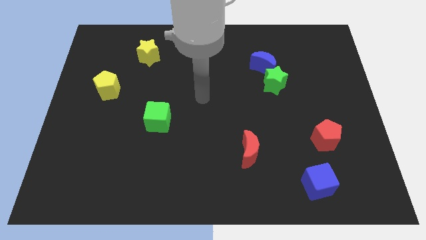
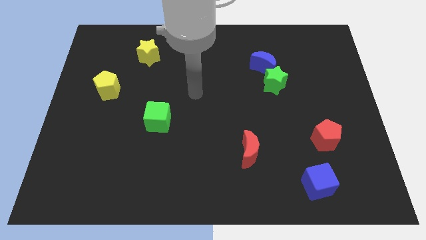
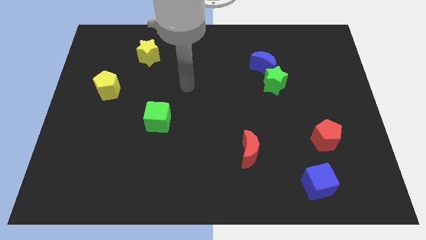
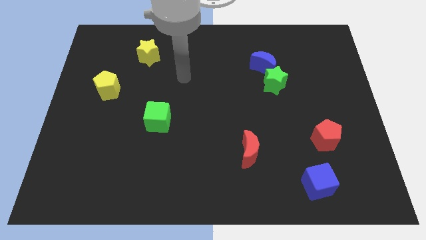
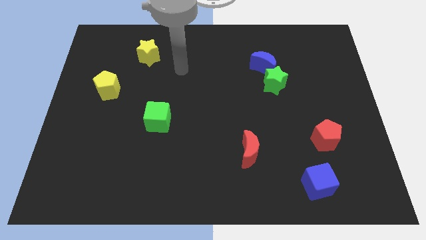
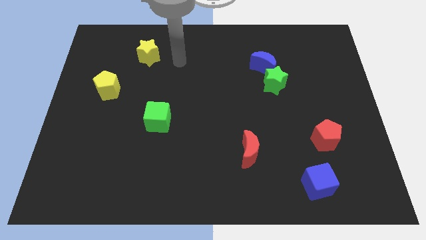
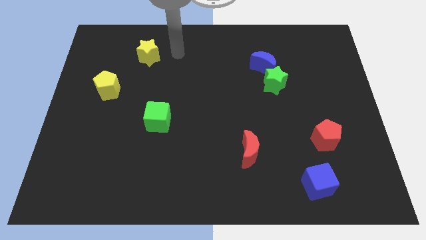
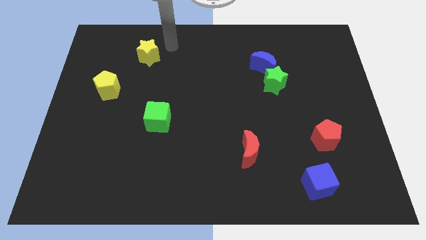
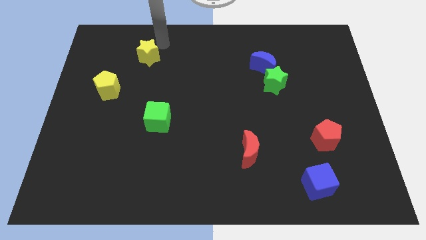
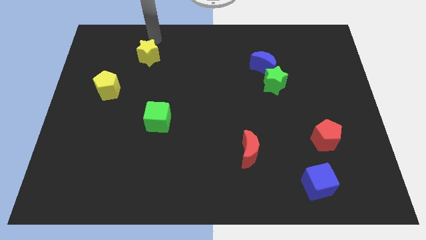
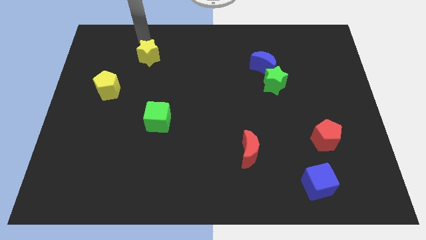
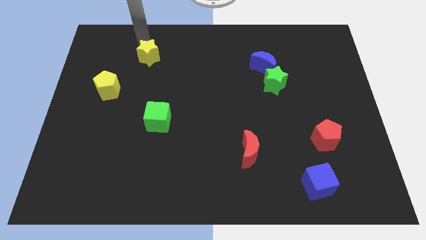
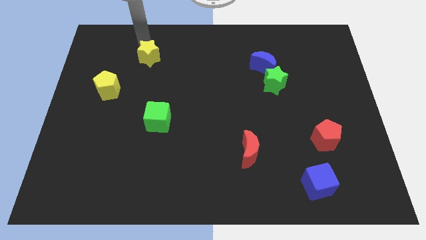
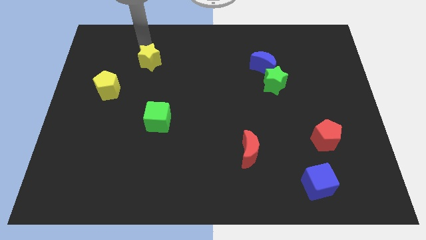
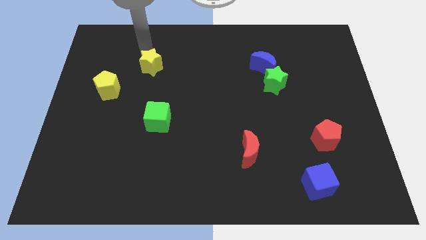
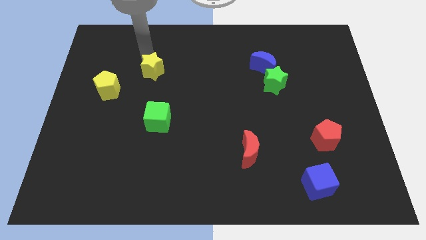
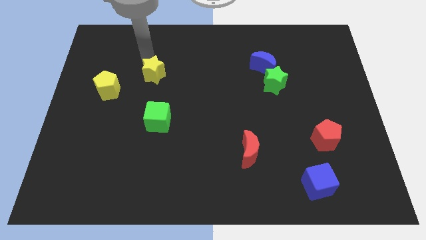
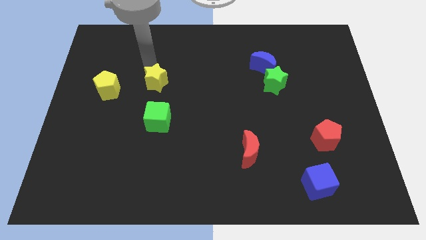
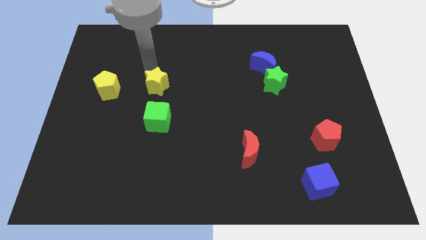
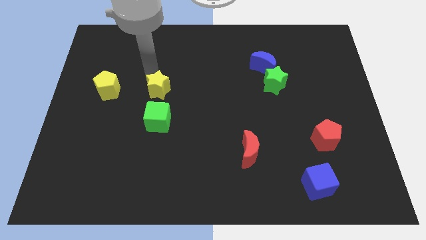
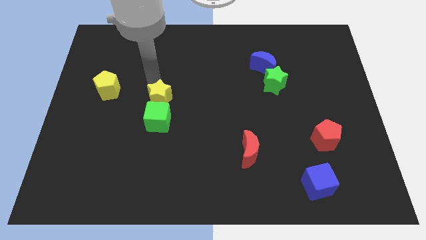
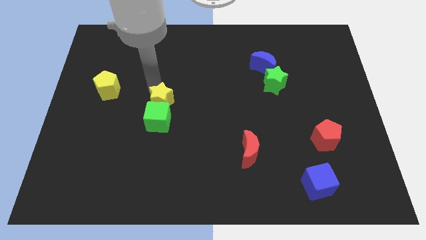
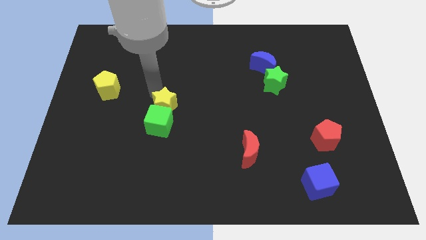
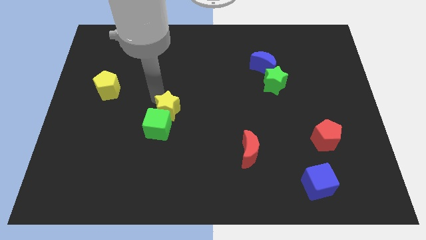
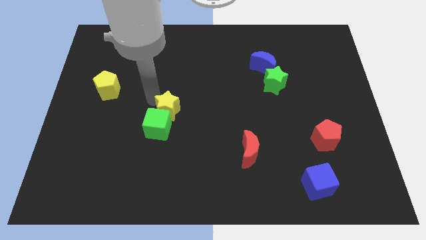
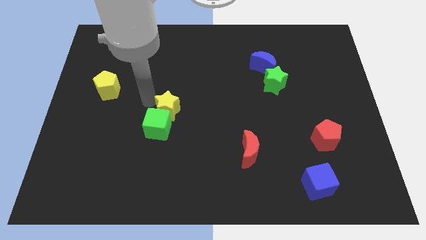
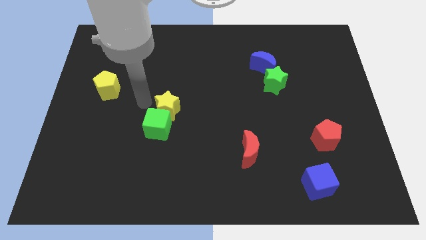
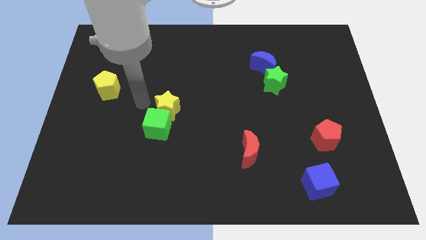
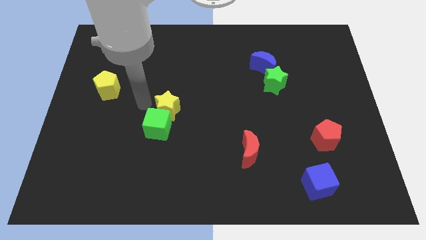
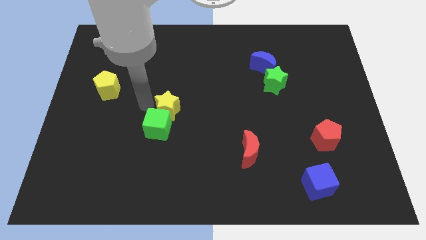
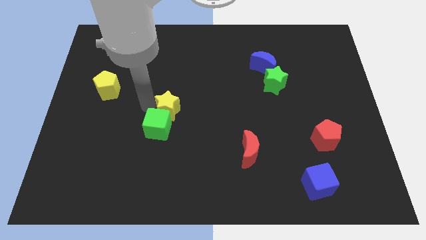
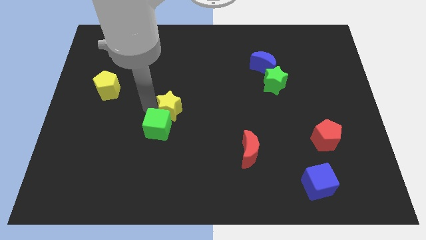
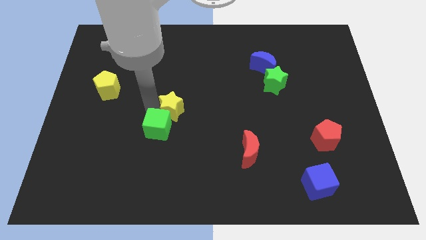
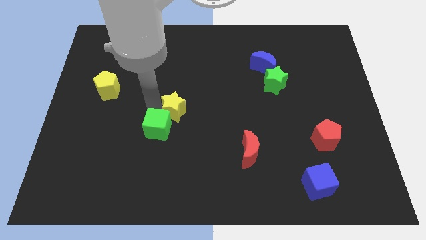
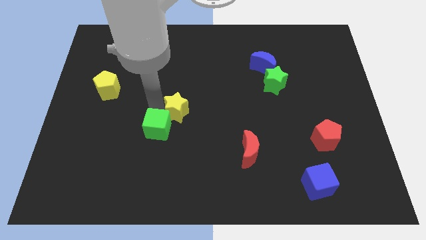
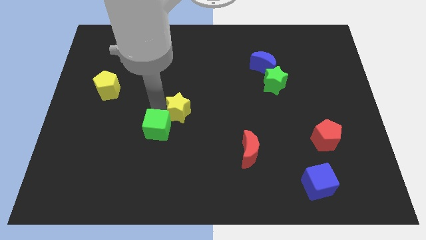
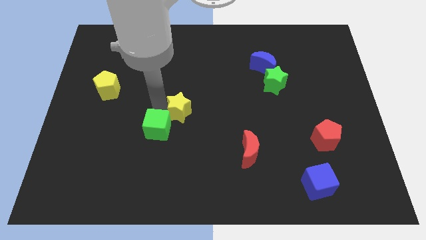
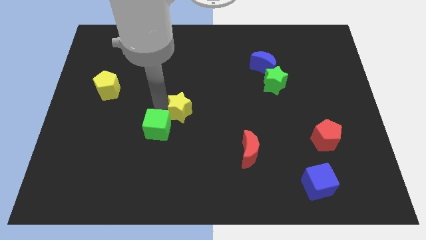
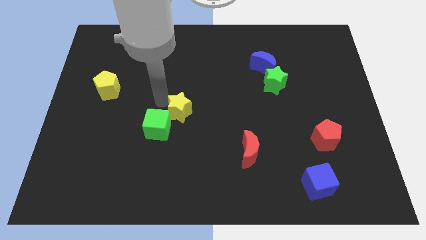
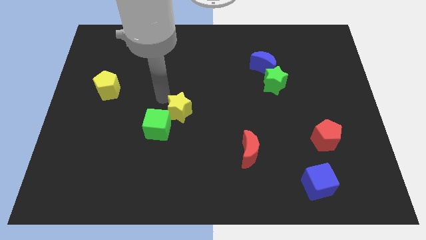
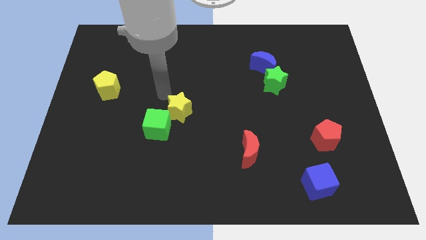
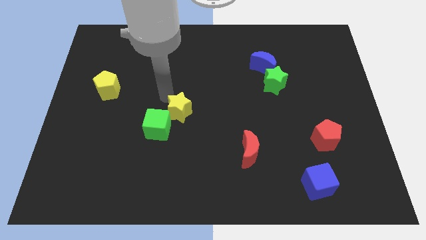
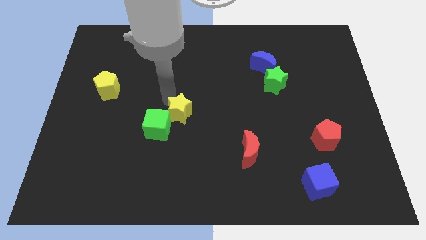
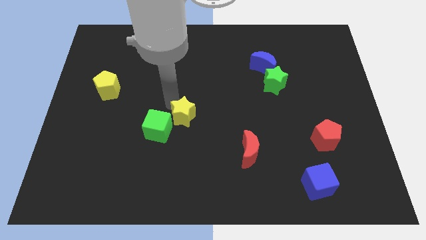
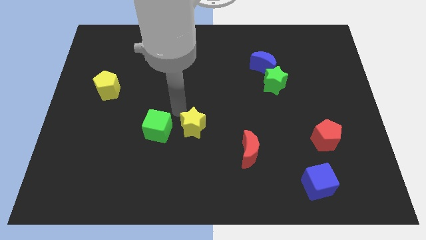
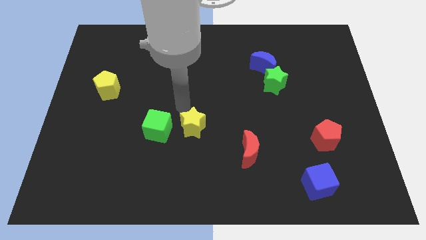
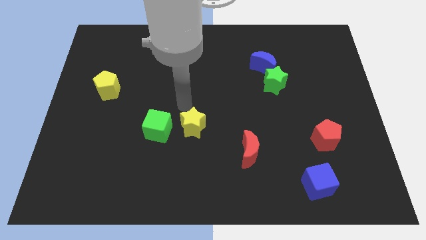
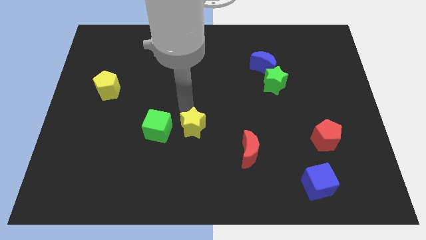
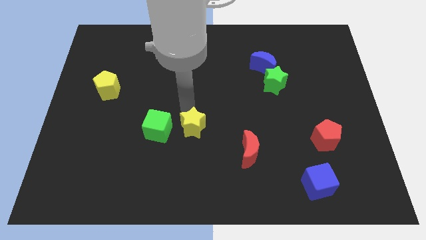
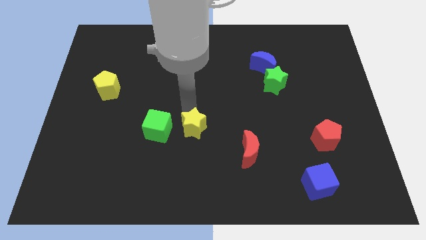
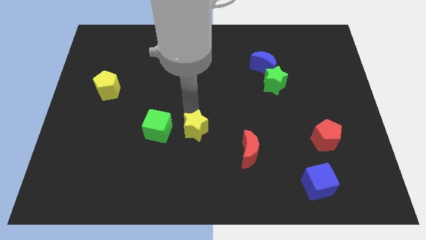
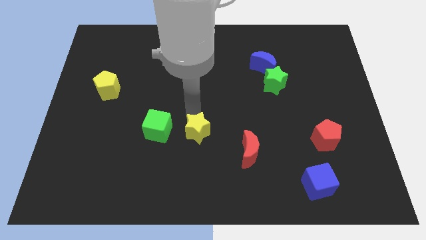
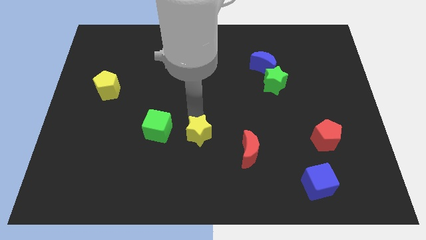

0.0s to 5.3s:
move the yellow star to the left side of the red moon

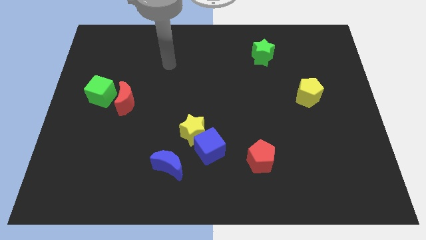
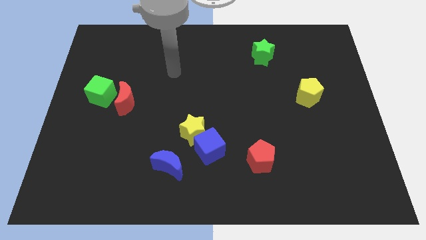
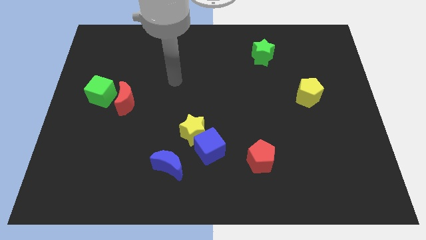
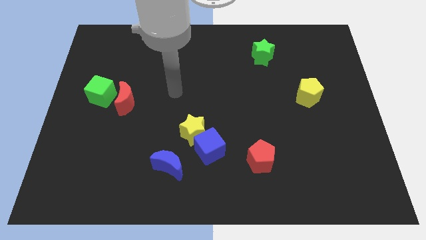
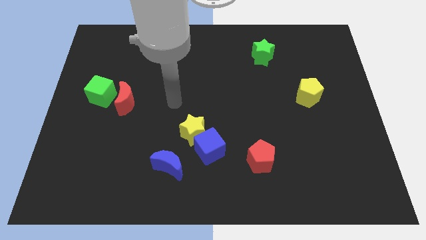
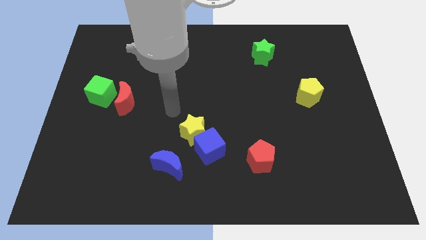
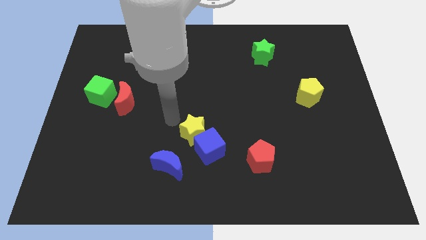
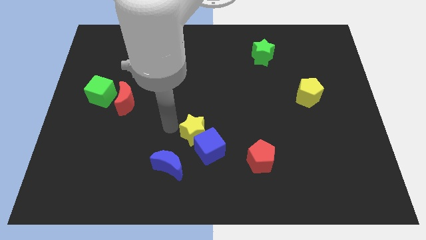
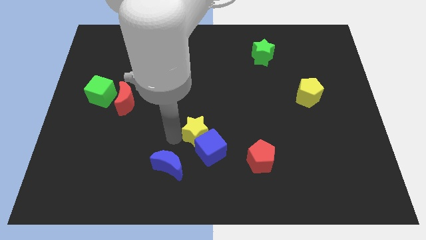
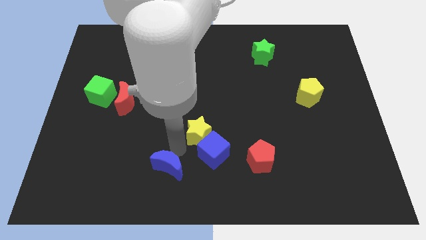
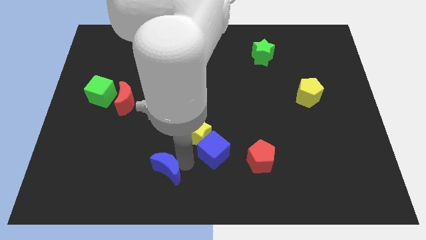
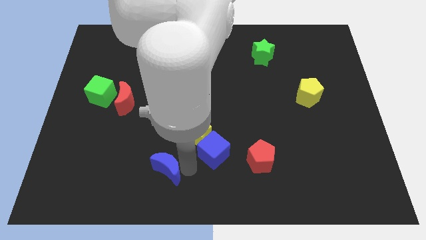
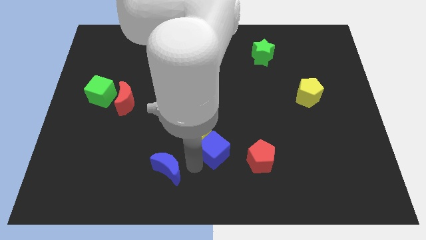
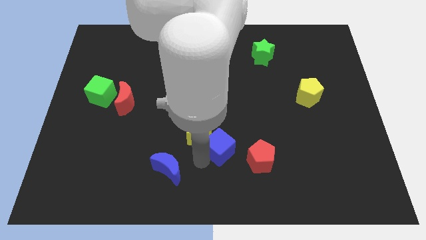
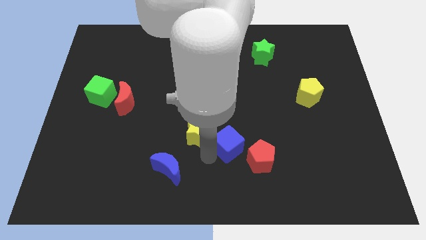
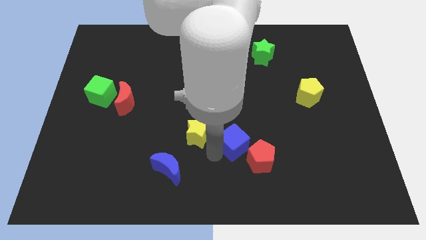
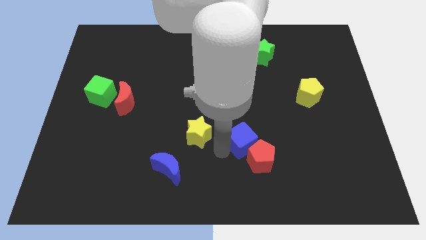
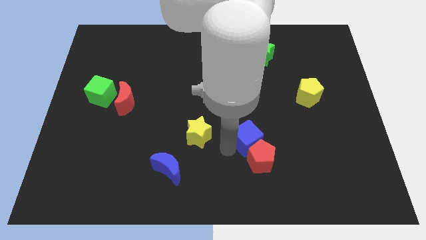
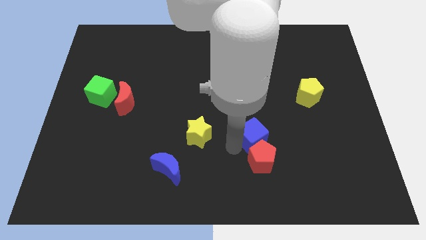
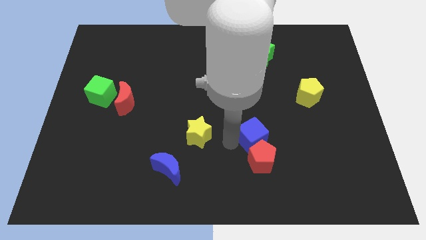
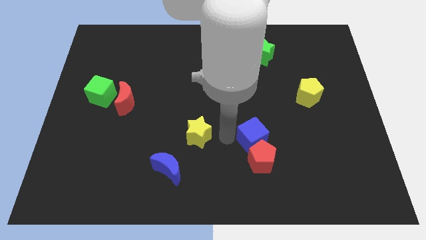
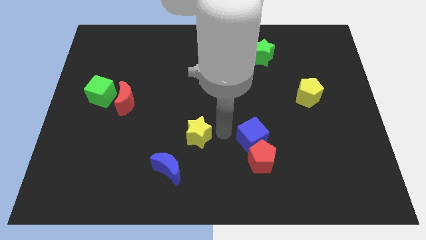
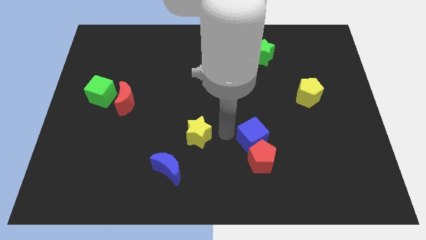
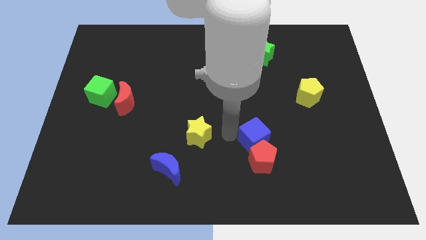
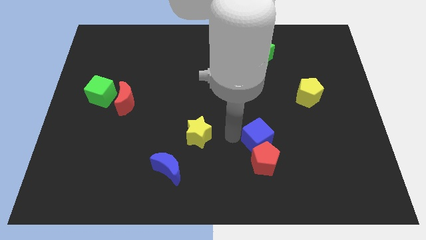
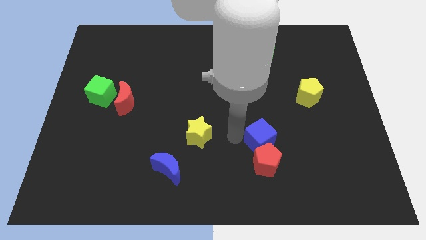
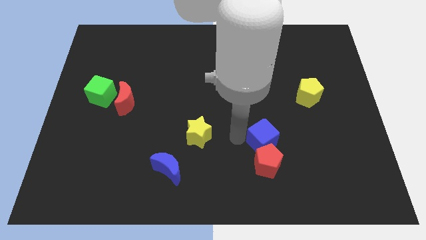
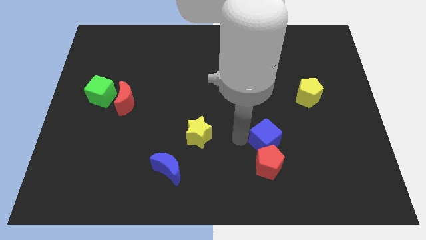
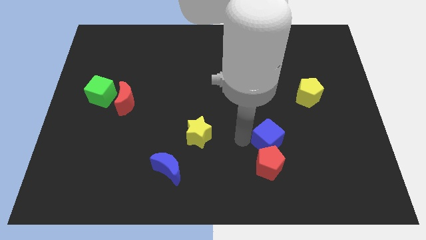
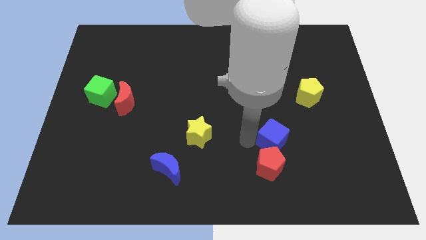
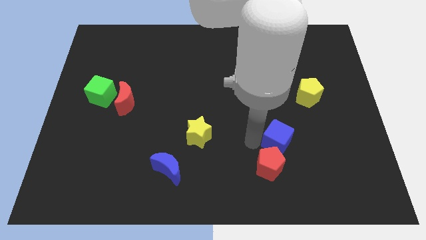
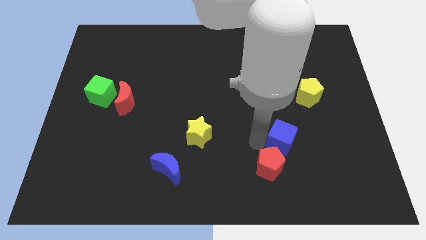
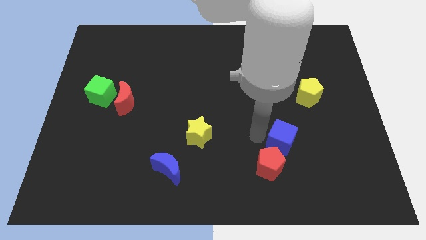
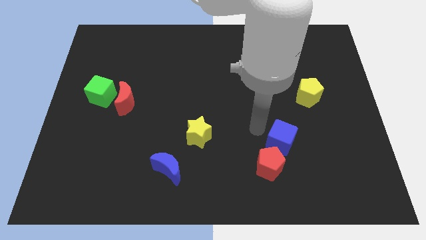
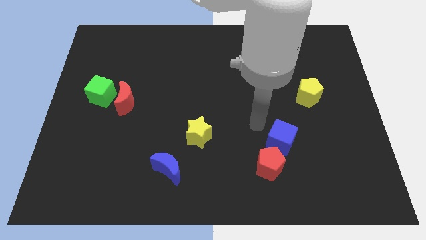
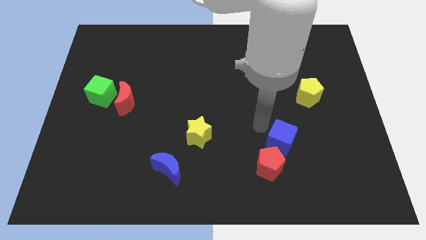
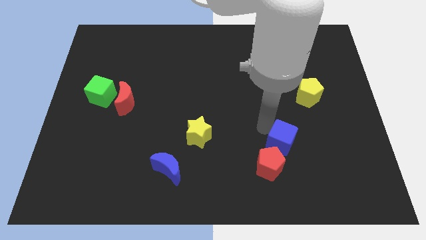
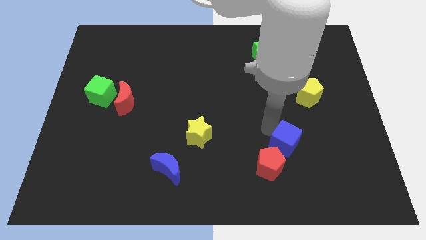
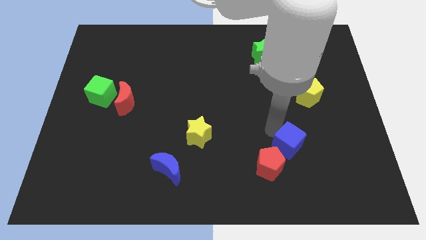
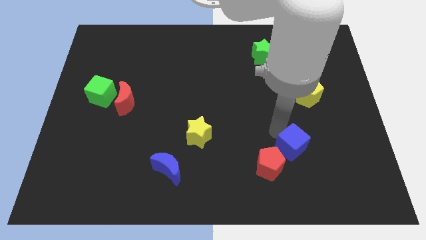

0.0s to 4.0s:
slide the blue cube right of the red pentagon
